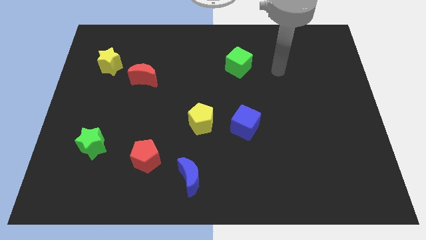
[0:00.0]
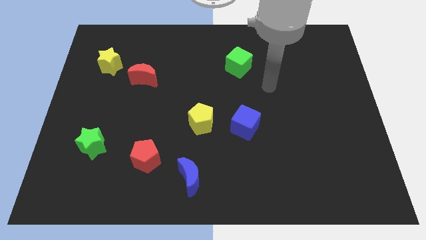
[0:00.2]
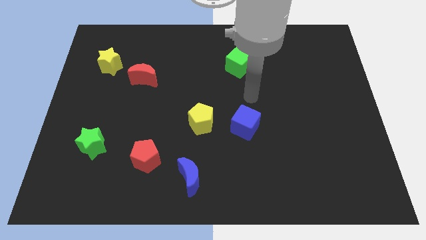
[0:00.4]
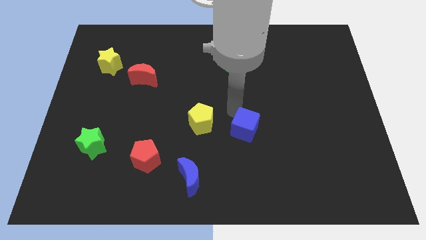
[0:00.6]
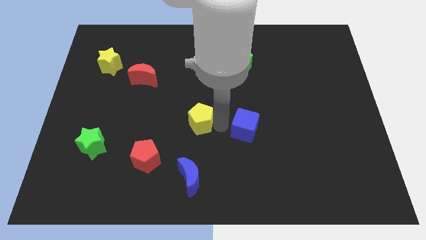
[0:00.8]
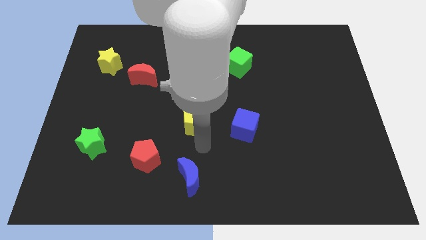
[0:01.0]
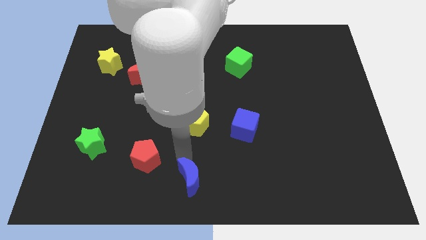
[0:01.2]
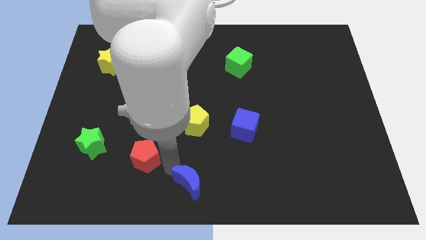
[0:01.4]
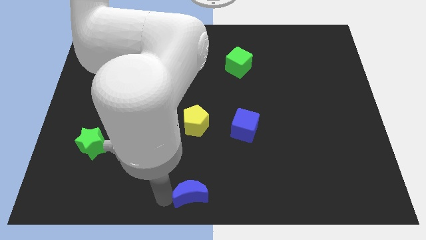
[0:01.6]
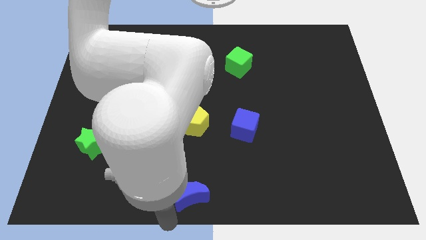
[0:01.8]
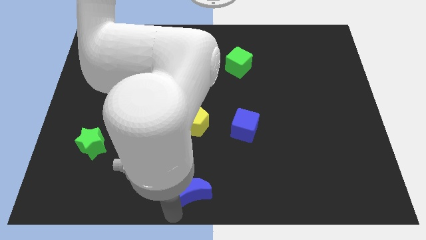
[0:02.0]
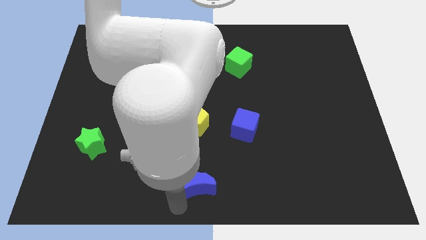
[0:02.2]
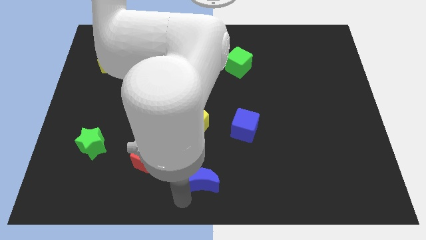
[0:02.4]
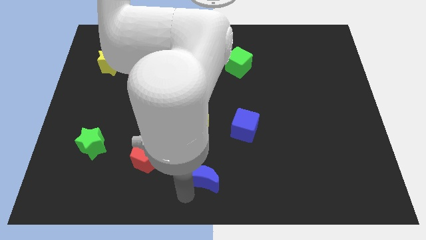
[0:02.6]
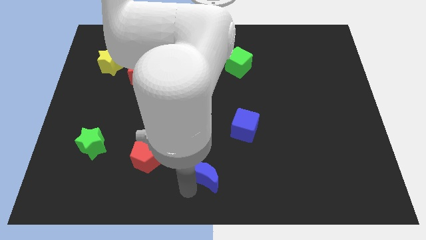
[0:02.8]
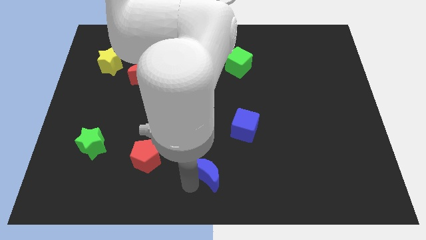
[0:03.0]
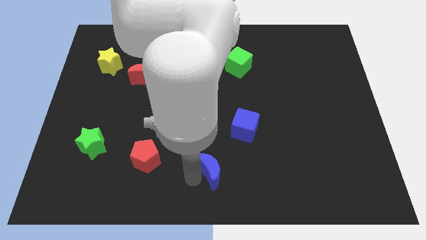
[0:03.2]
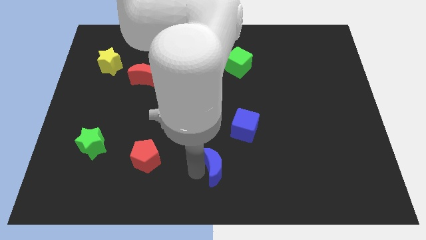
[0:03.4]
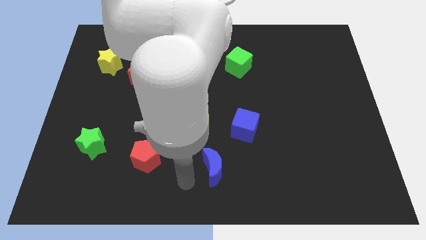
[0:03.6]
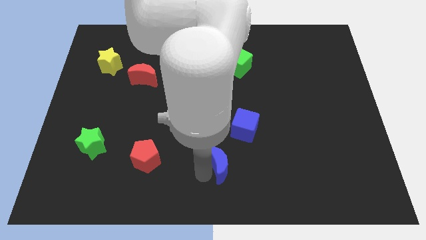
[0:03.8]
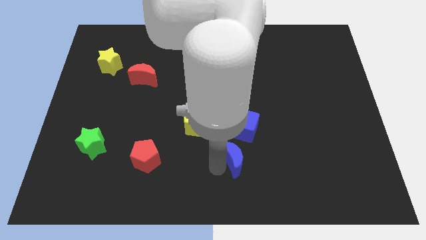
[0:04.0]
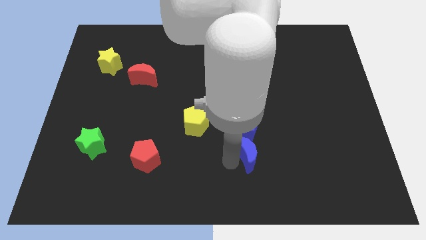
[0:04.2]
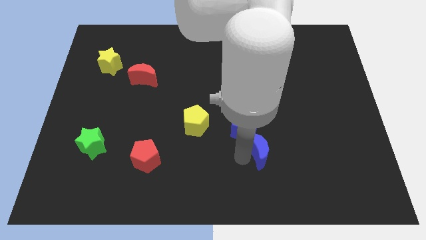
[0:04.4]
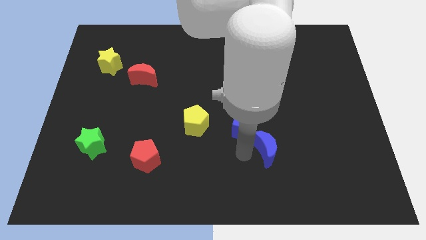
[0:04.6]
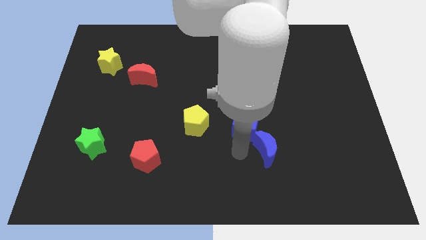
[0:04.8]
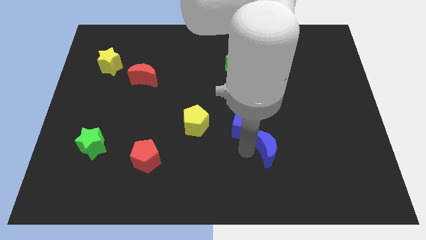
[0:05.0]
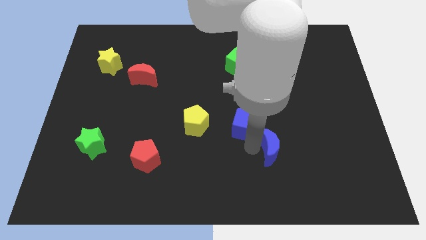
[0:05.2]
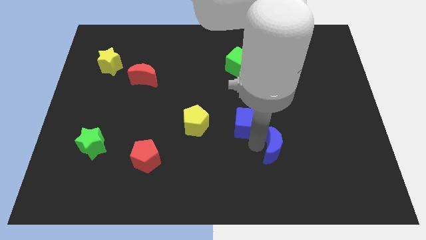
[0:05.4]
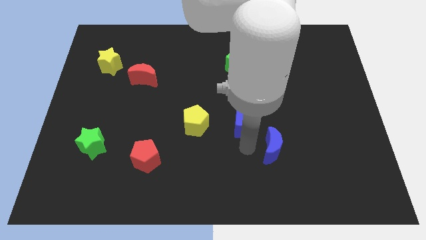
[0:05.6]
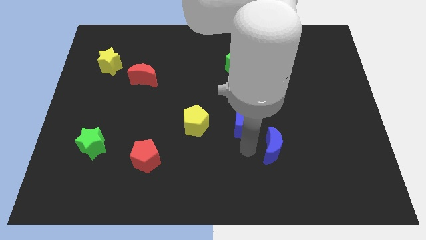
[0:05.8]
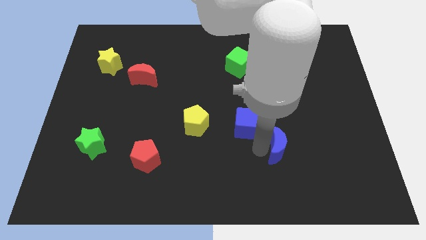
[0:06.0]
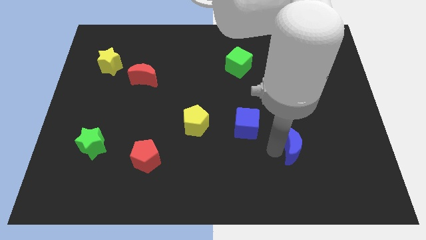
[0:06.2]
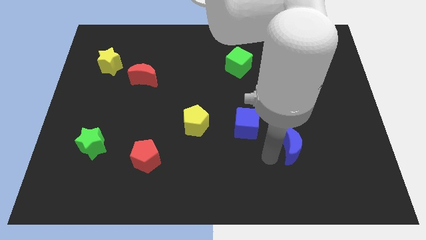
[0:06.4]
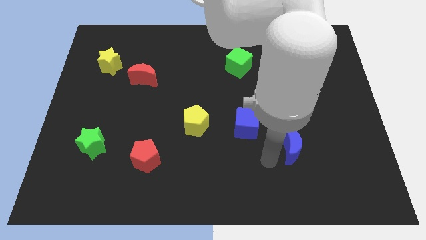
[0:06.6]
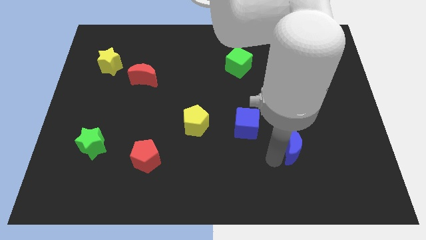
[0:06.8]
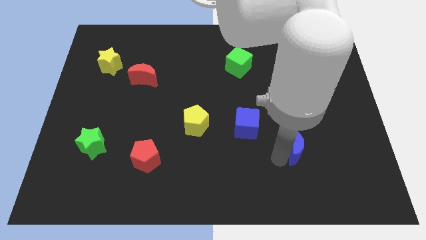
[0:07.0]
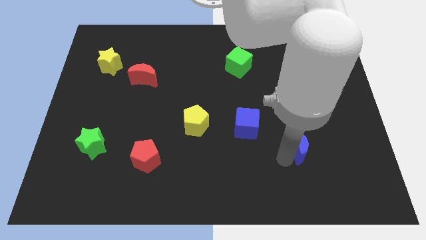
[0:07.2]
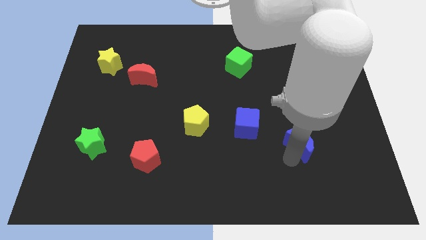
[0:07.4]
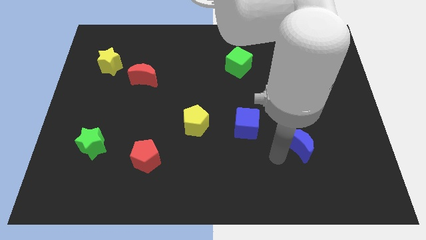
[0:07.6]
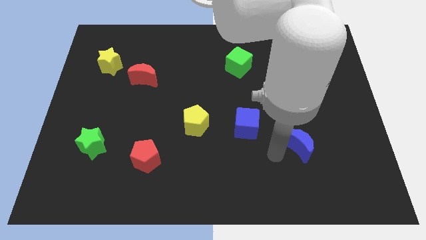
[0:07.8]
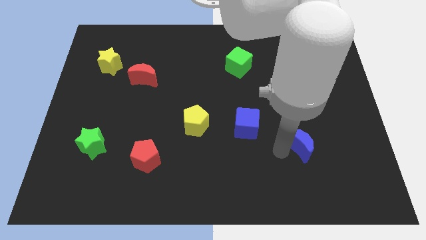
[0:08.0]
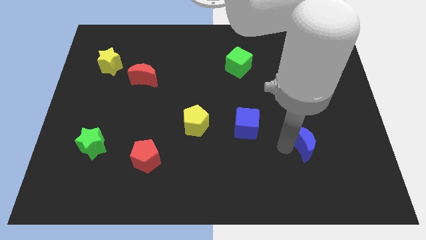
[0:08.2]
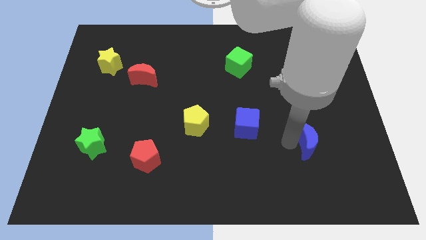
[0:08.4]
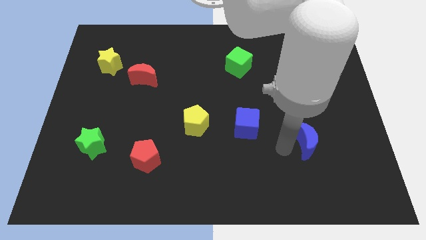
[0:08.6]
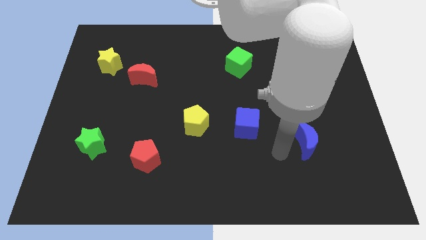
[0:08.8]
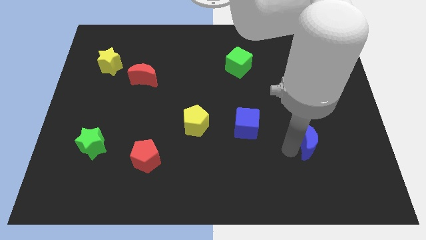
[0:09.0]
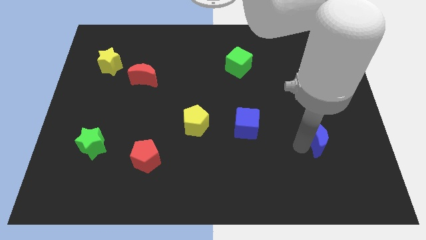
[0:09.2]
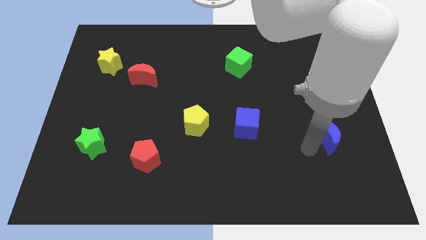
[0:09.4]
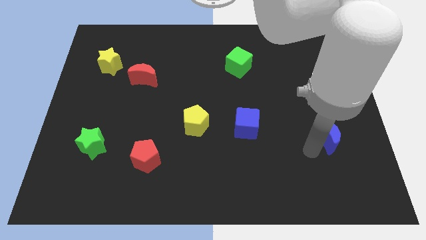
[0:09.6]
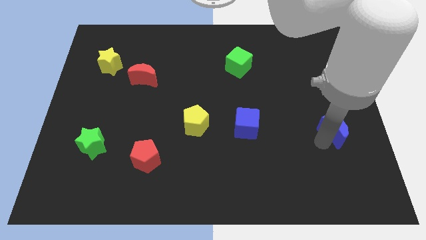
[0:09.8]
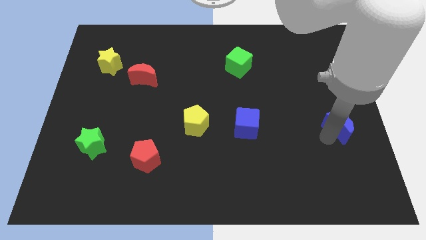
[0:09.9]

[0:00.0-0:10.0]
slide the blue moon to the center right

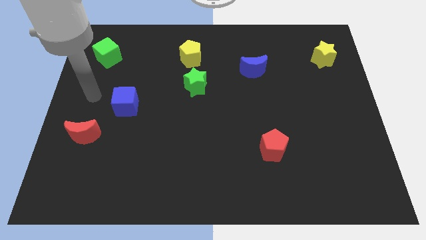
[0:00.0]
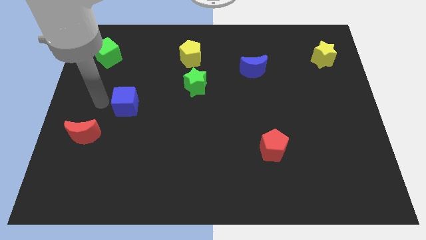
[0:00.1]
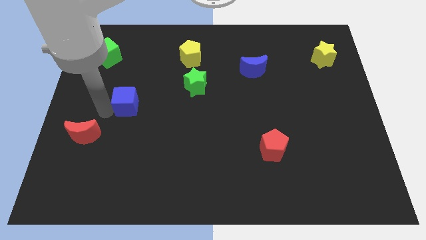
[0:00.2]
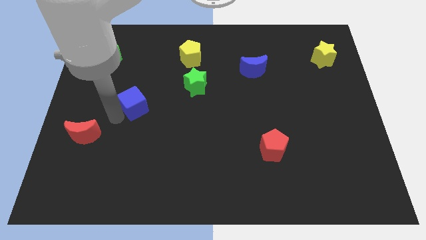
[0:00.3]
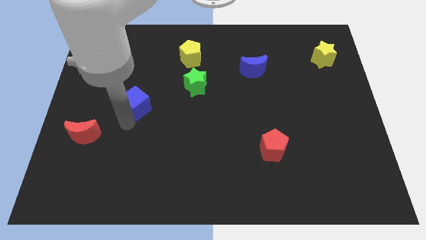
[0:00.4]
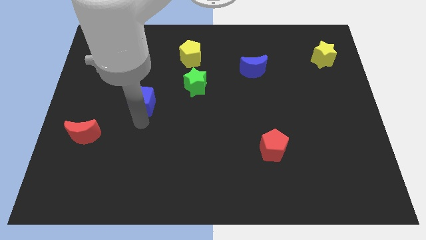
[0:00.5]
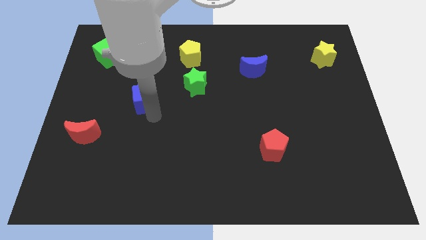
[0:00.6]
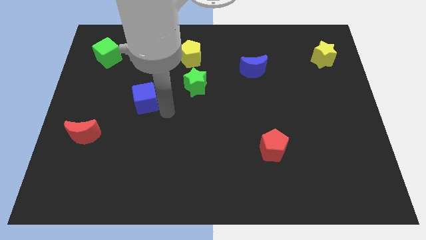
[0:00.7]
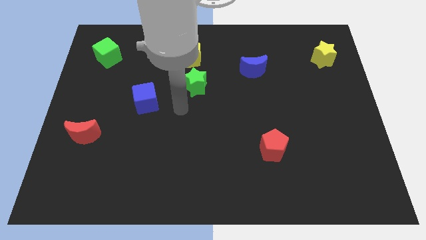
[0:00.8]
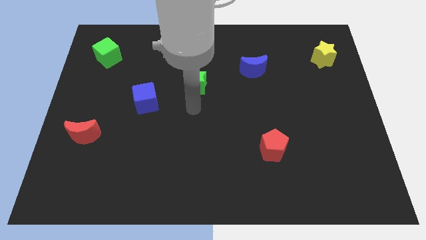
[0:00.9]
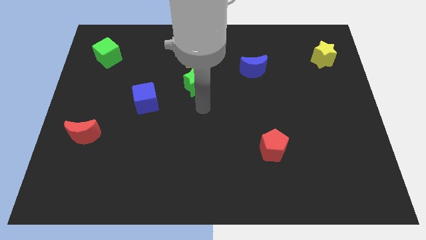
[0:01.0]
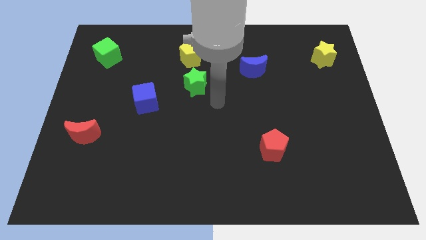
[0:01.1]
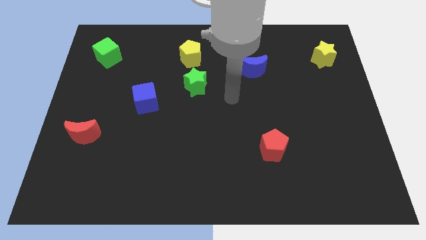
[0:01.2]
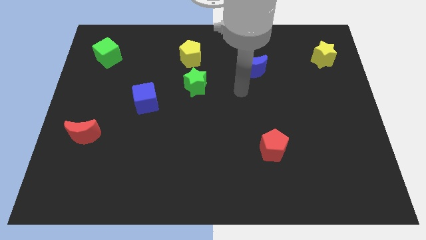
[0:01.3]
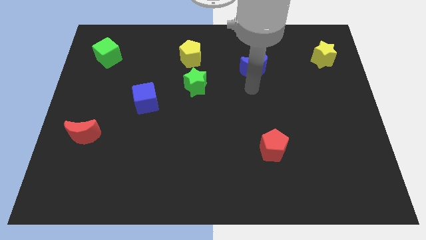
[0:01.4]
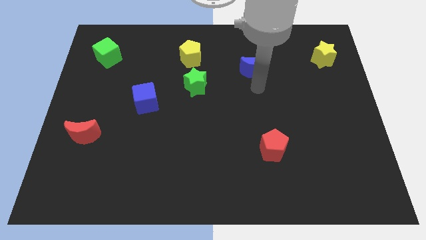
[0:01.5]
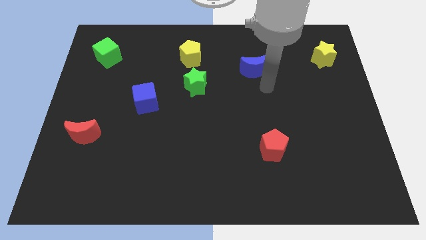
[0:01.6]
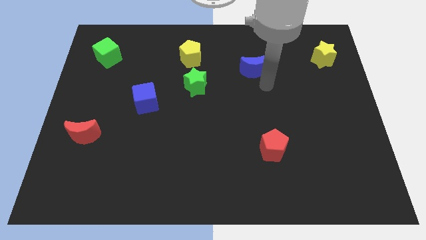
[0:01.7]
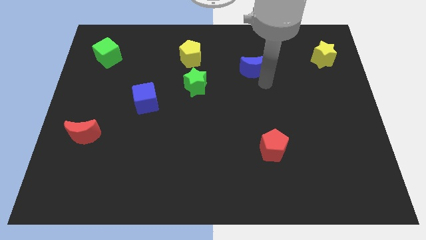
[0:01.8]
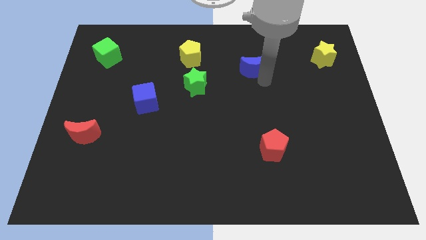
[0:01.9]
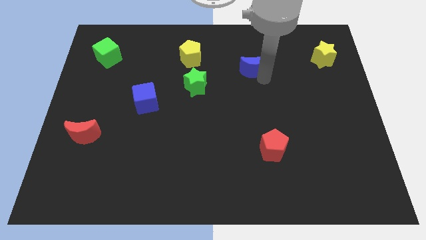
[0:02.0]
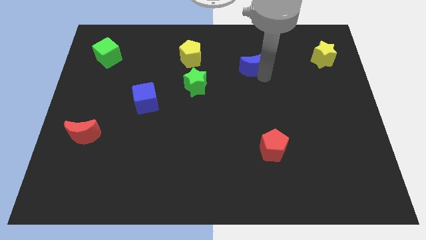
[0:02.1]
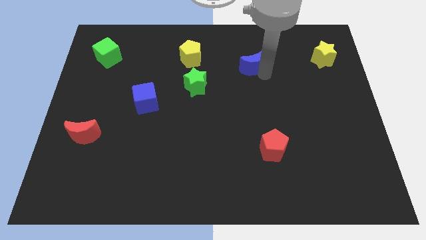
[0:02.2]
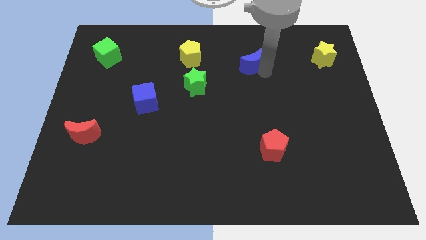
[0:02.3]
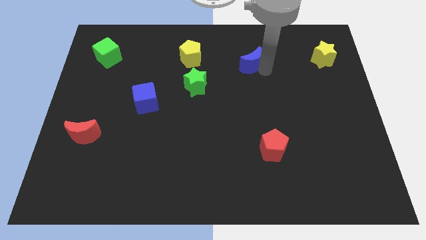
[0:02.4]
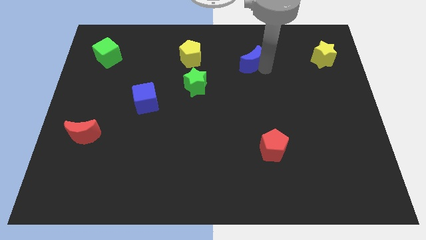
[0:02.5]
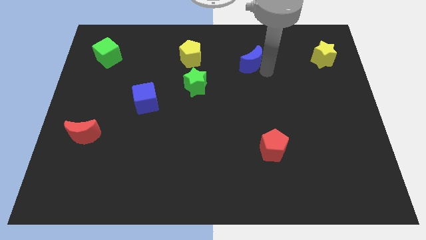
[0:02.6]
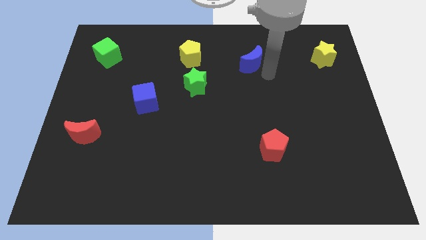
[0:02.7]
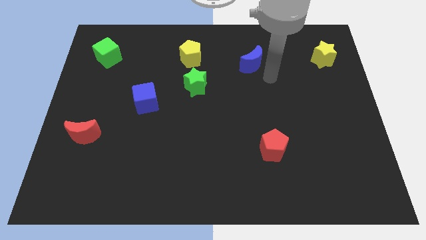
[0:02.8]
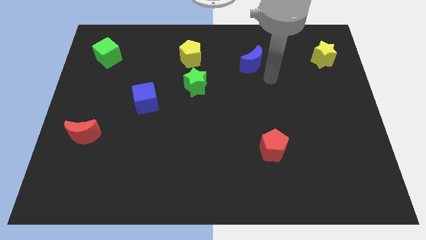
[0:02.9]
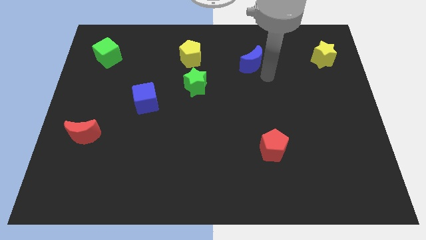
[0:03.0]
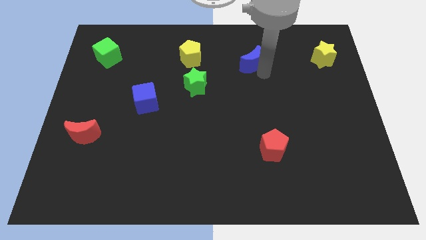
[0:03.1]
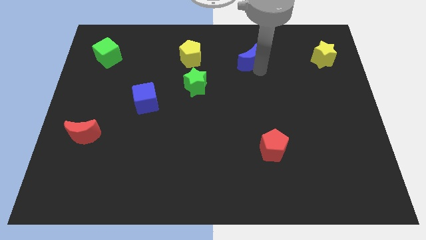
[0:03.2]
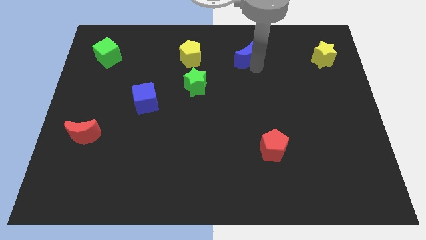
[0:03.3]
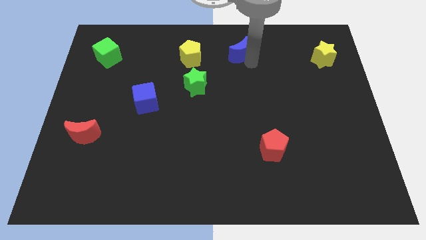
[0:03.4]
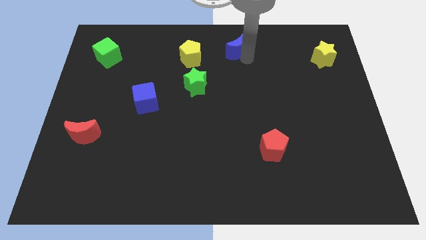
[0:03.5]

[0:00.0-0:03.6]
move the blue moon to the top
